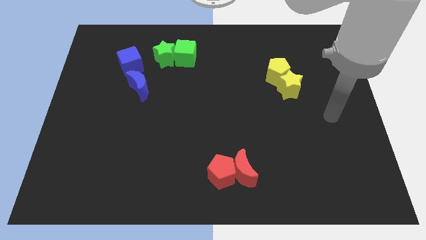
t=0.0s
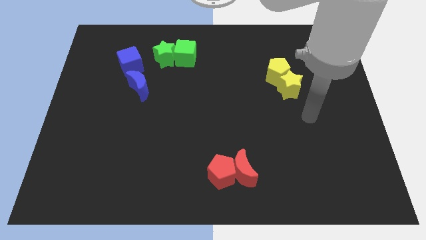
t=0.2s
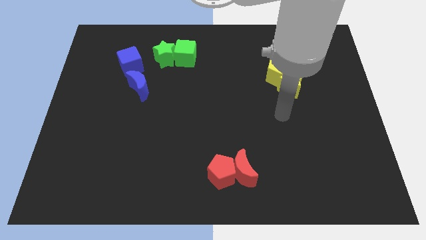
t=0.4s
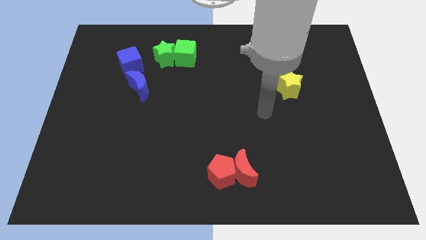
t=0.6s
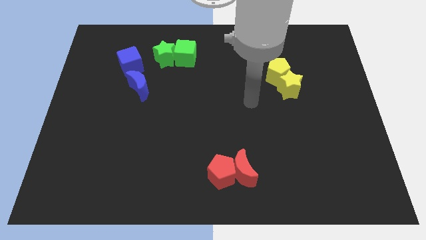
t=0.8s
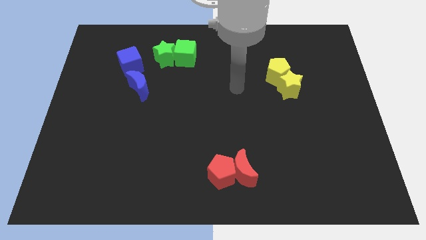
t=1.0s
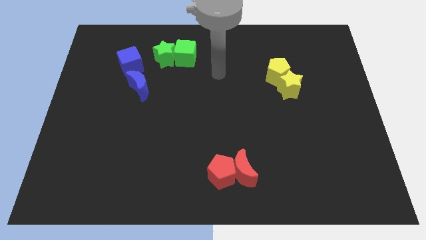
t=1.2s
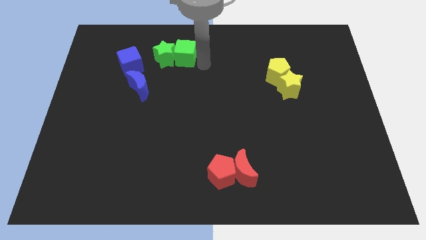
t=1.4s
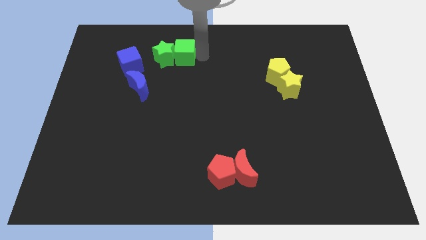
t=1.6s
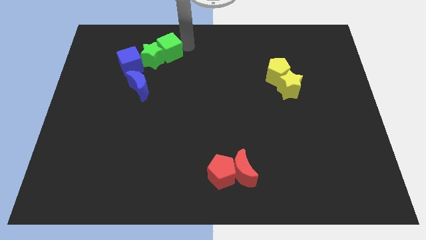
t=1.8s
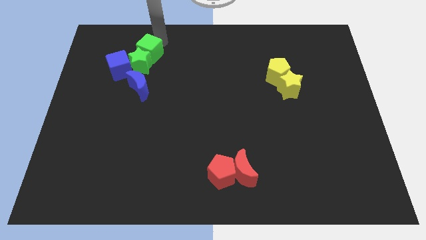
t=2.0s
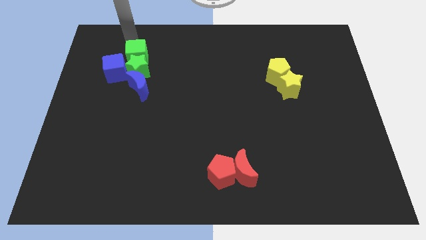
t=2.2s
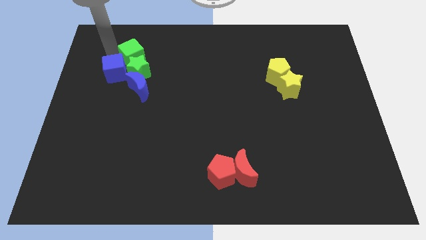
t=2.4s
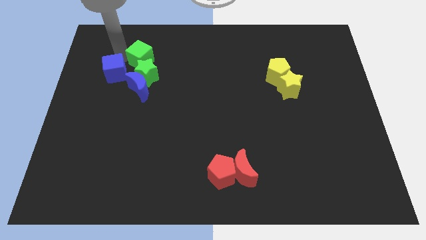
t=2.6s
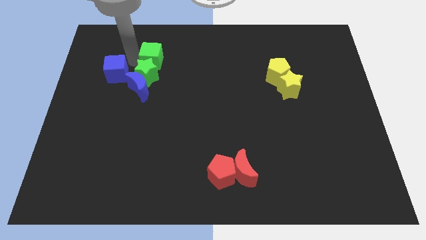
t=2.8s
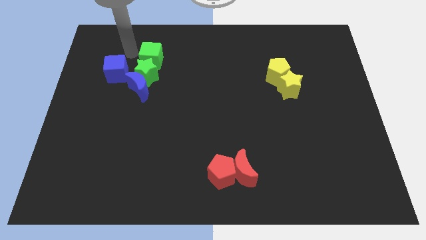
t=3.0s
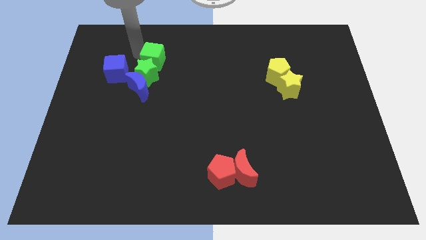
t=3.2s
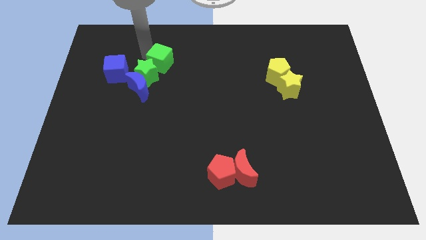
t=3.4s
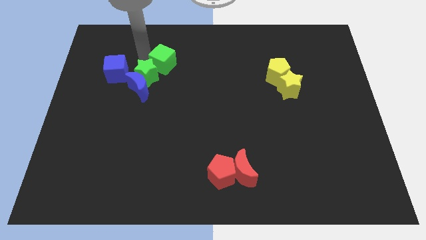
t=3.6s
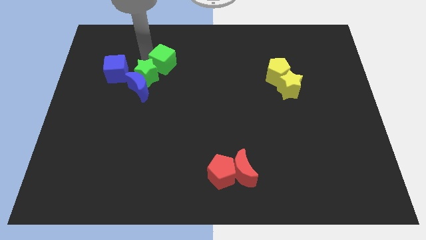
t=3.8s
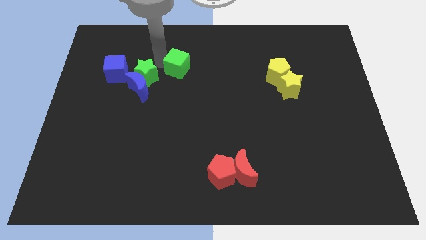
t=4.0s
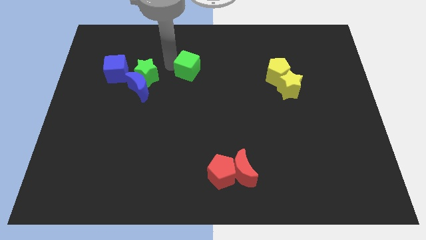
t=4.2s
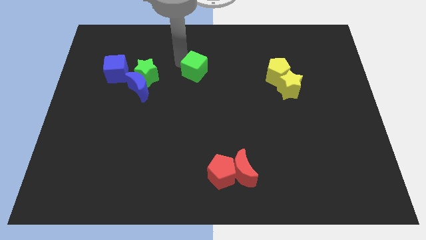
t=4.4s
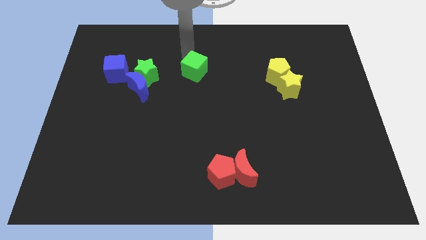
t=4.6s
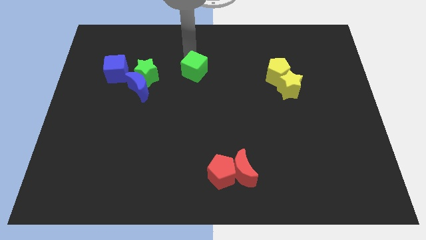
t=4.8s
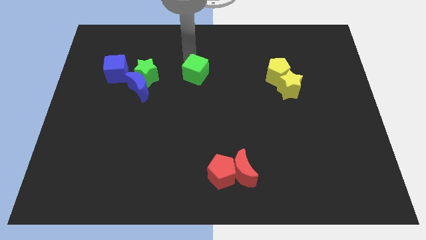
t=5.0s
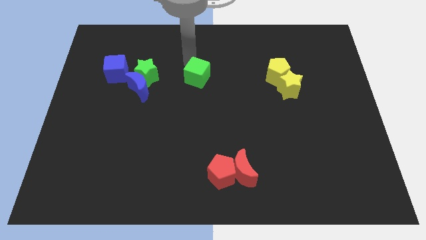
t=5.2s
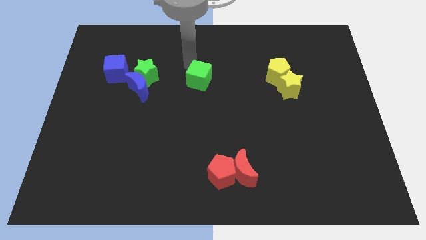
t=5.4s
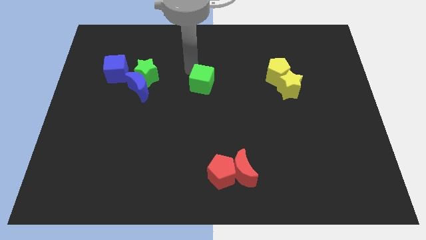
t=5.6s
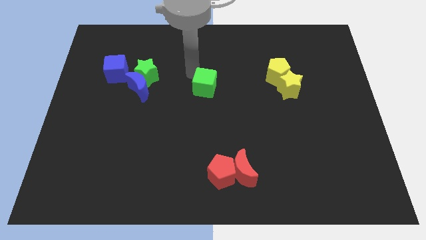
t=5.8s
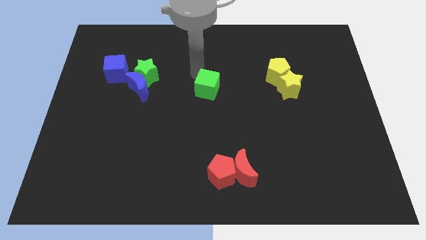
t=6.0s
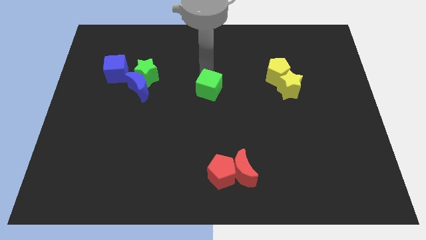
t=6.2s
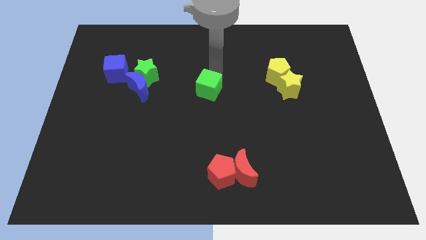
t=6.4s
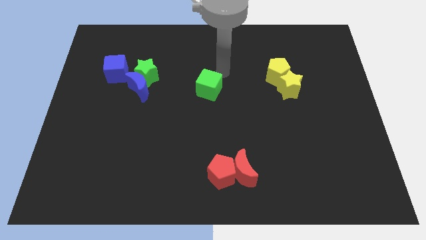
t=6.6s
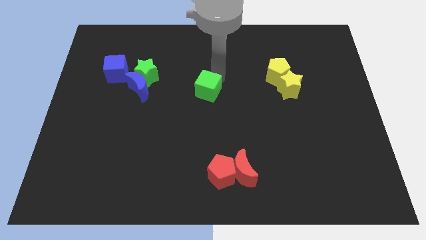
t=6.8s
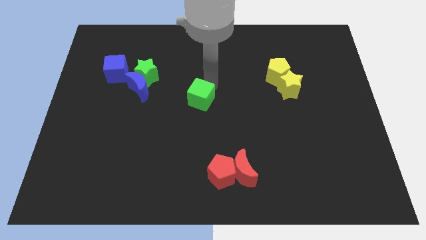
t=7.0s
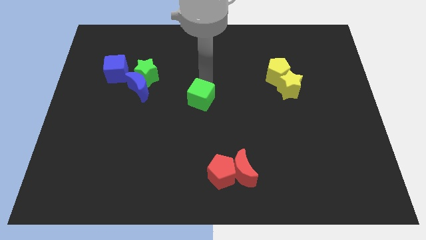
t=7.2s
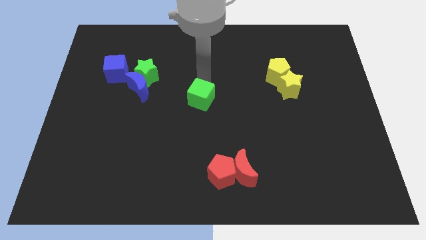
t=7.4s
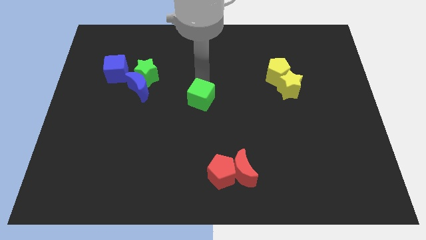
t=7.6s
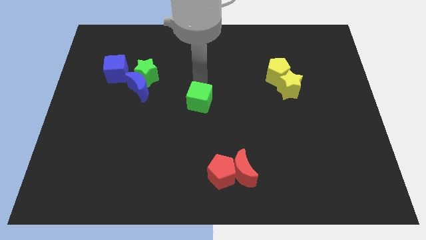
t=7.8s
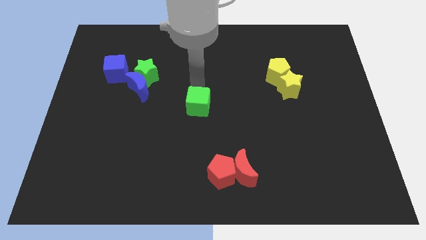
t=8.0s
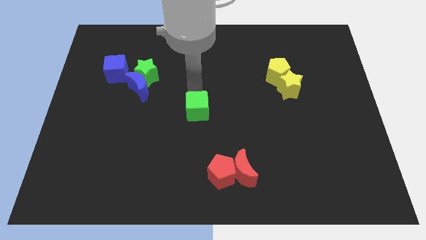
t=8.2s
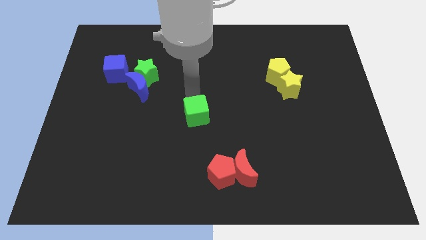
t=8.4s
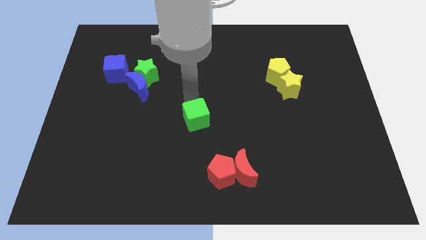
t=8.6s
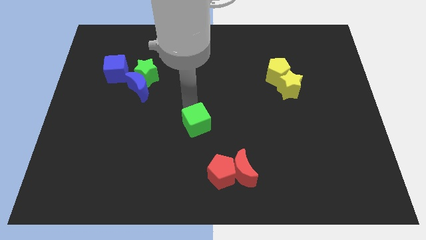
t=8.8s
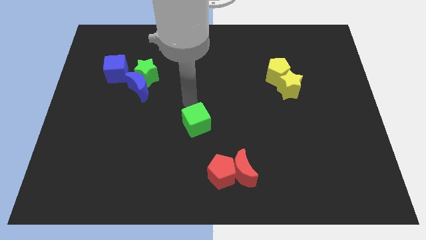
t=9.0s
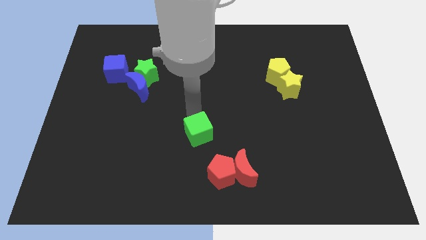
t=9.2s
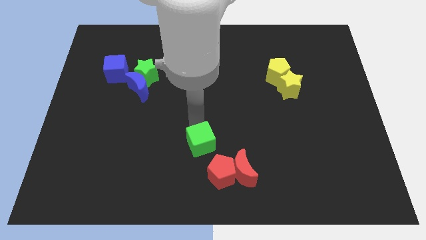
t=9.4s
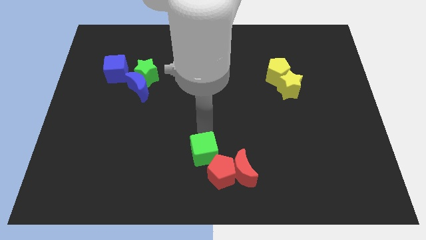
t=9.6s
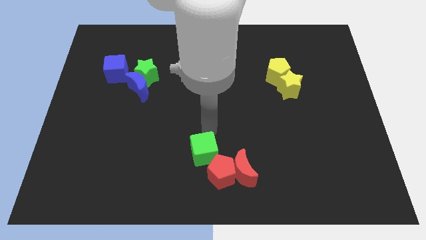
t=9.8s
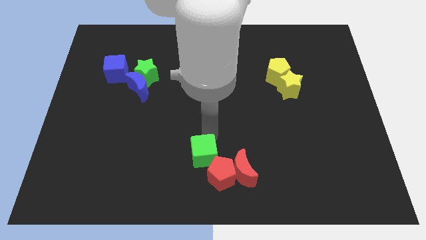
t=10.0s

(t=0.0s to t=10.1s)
push the green cube to the bottom

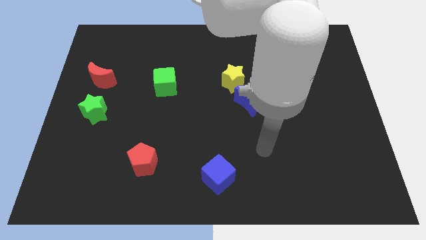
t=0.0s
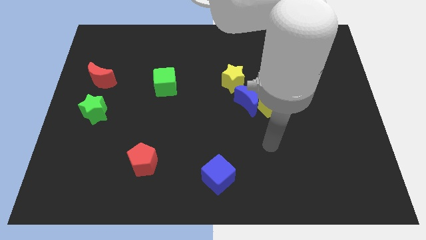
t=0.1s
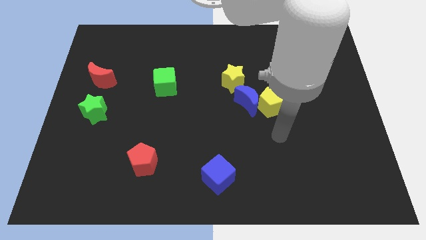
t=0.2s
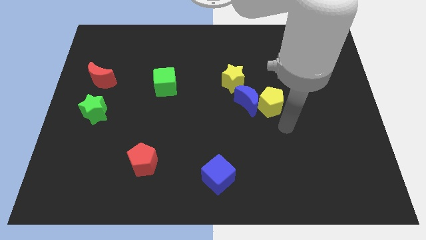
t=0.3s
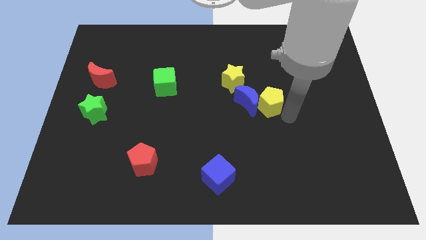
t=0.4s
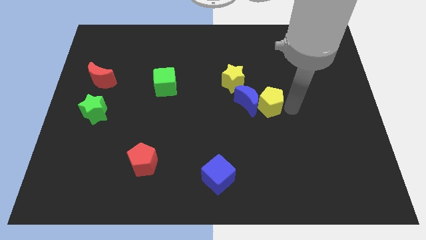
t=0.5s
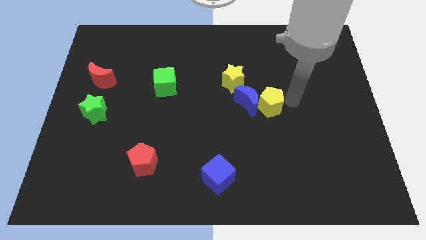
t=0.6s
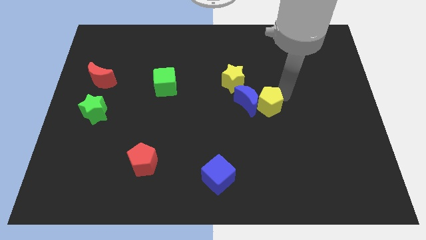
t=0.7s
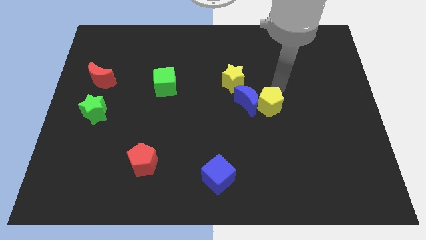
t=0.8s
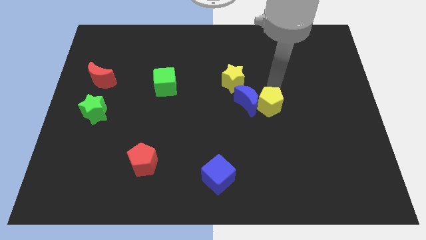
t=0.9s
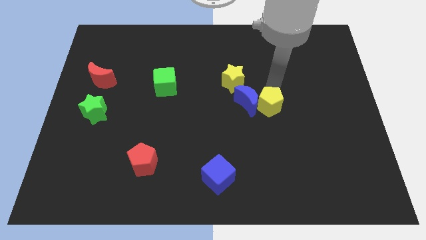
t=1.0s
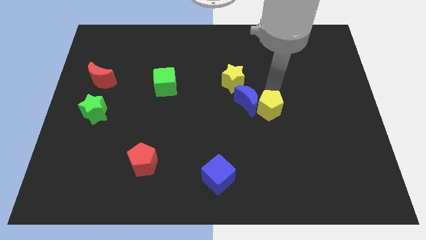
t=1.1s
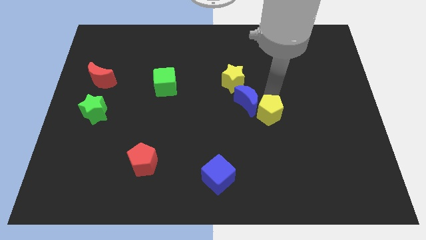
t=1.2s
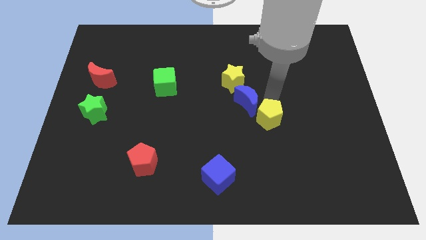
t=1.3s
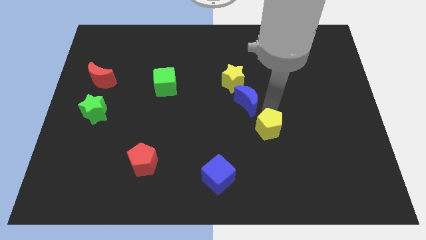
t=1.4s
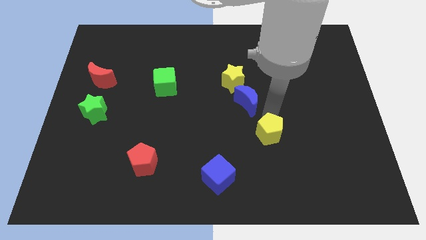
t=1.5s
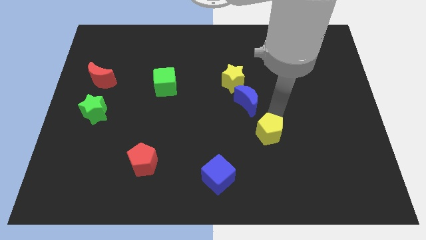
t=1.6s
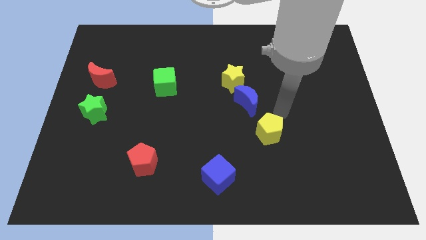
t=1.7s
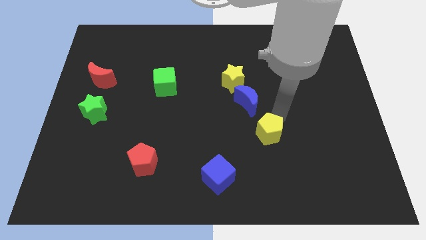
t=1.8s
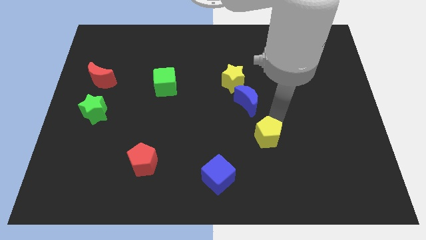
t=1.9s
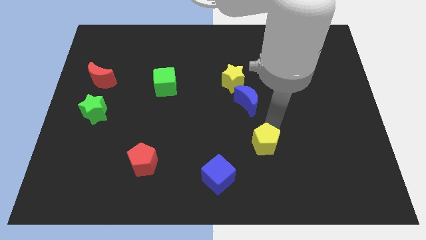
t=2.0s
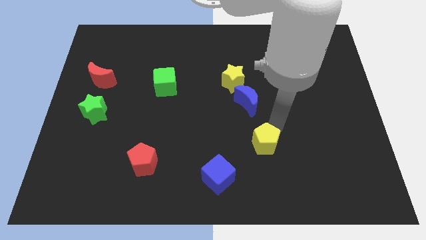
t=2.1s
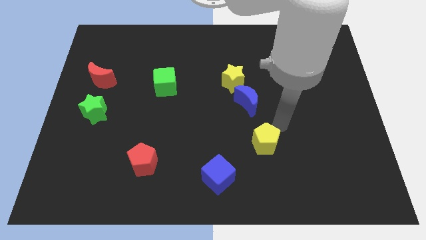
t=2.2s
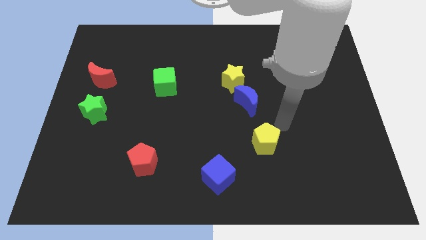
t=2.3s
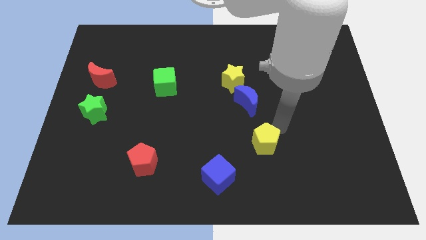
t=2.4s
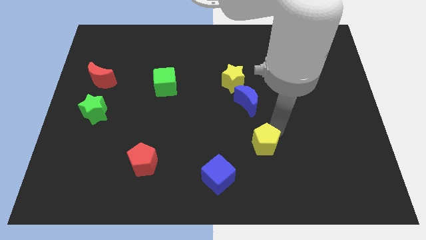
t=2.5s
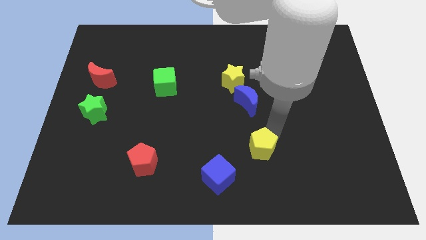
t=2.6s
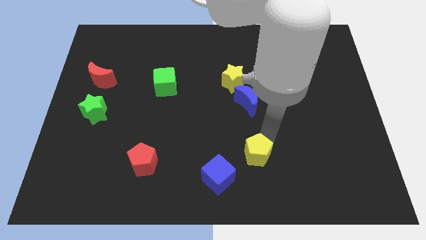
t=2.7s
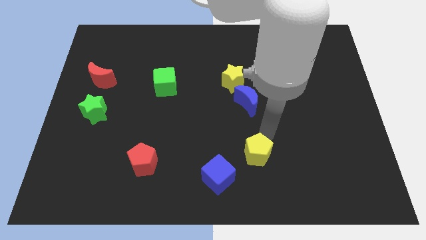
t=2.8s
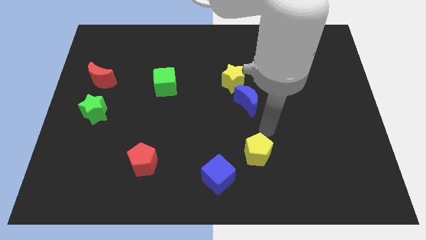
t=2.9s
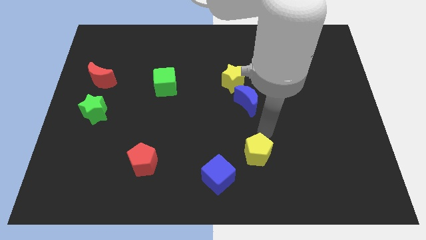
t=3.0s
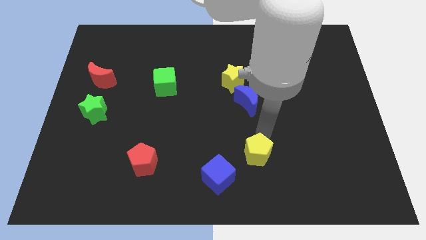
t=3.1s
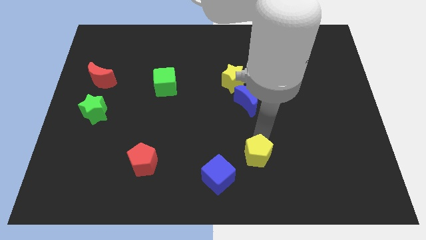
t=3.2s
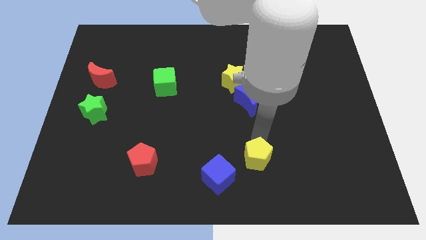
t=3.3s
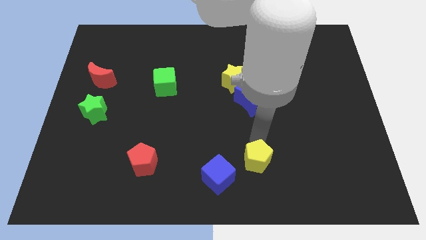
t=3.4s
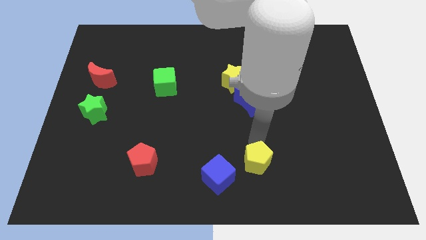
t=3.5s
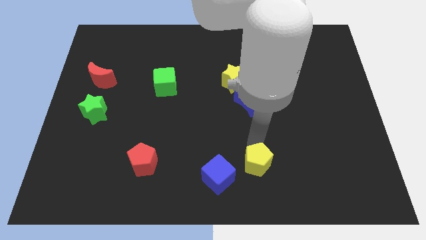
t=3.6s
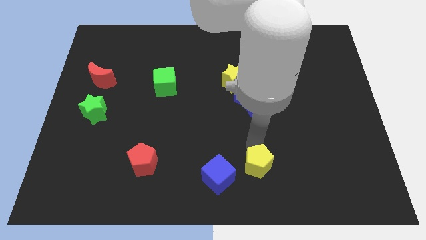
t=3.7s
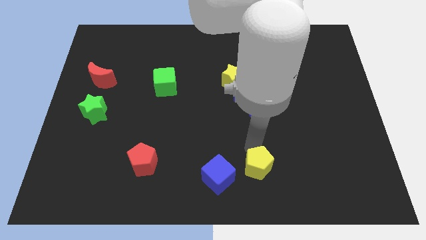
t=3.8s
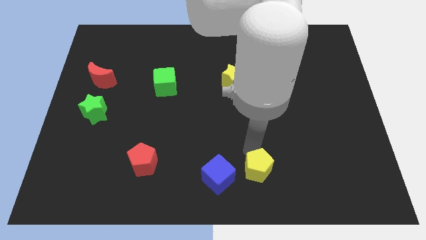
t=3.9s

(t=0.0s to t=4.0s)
push the yellow pentagon to the bottom
